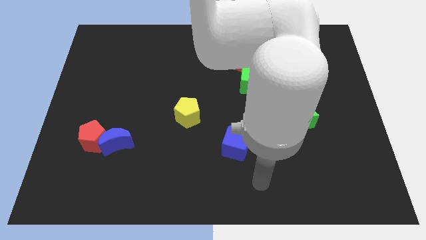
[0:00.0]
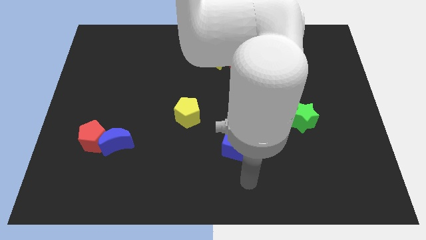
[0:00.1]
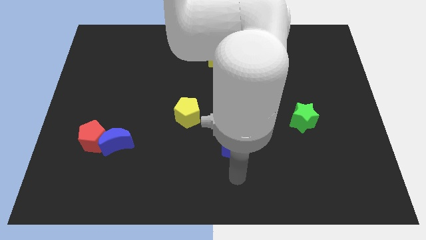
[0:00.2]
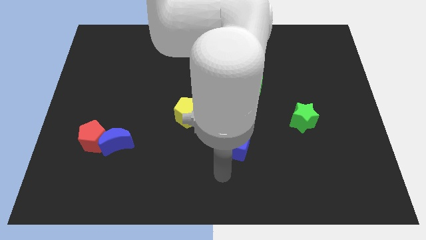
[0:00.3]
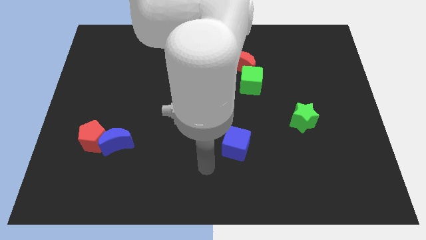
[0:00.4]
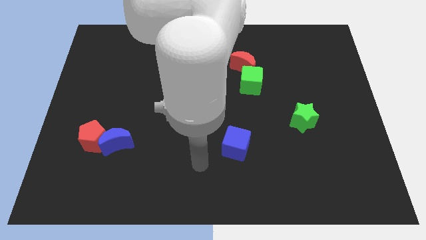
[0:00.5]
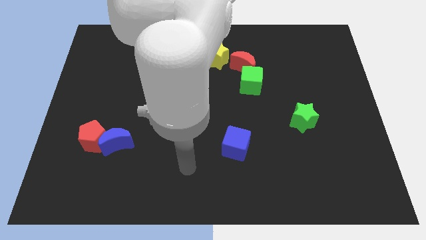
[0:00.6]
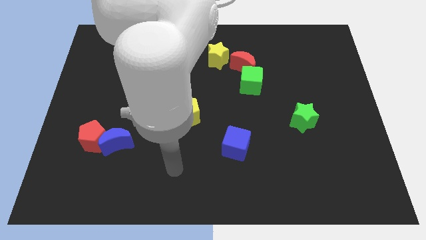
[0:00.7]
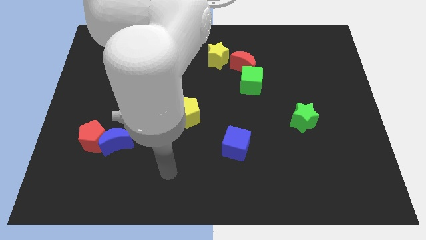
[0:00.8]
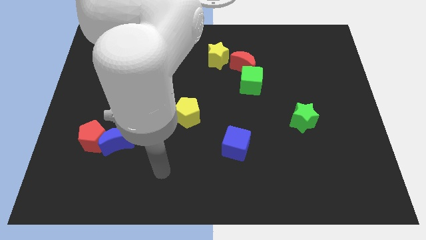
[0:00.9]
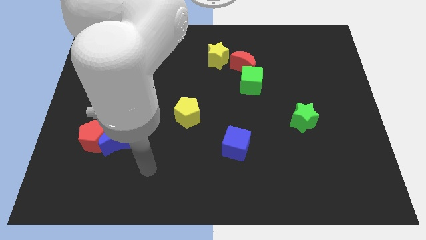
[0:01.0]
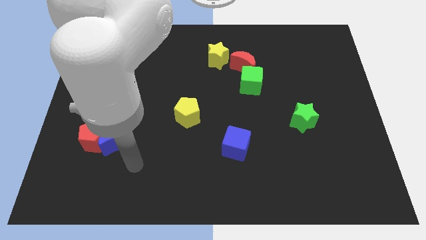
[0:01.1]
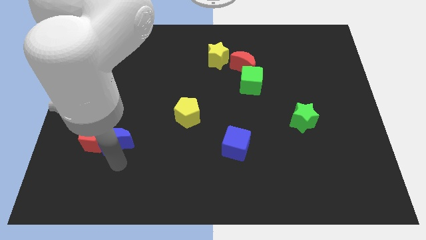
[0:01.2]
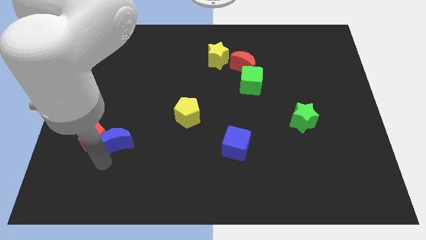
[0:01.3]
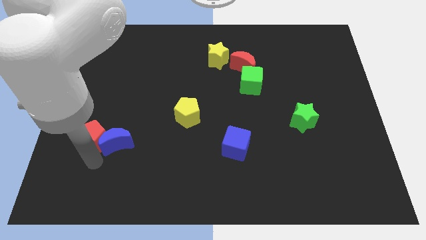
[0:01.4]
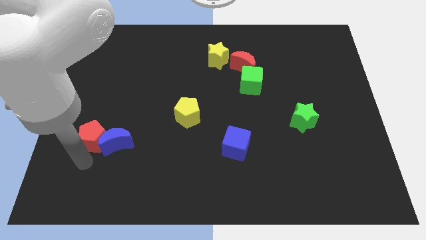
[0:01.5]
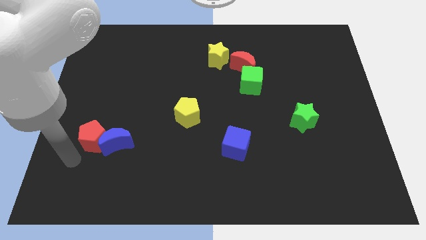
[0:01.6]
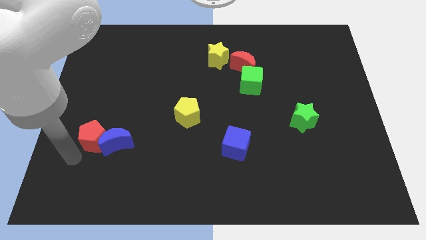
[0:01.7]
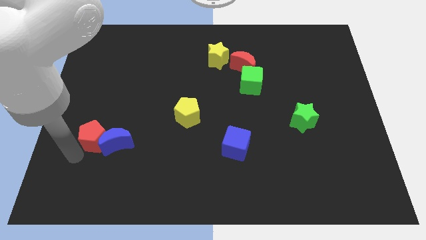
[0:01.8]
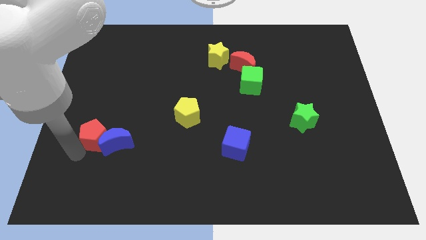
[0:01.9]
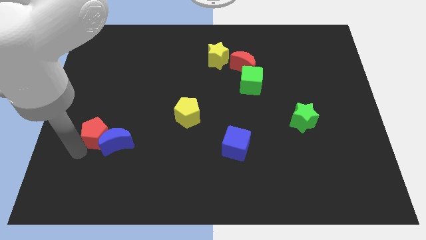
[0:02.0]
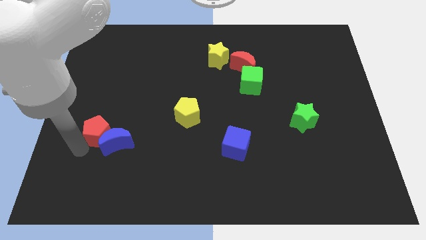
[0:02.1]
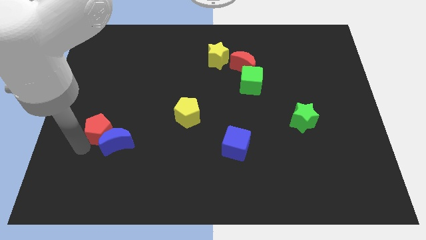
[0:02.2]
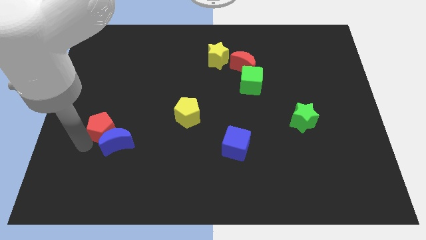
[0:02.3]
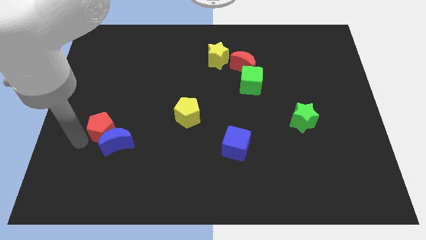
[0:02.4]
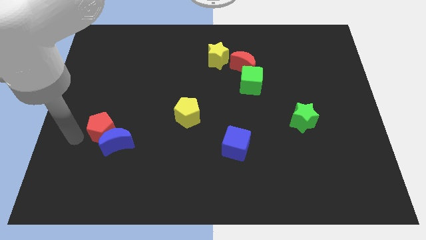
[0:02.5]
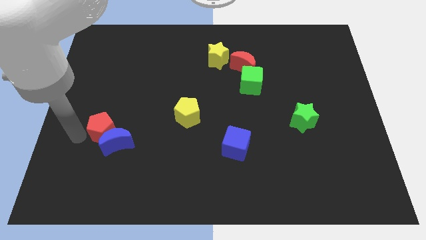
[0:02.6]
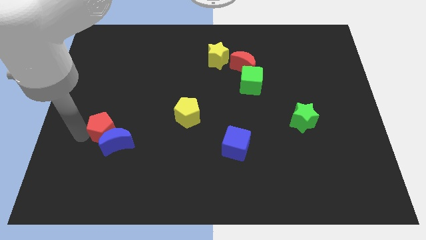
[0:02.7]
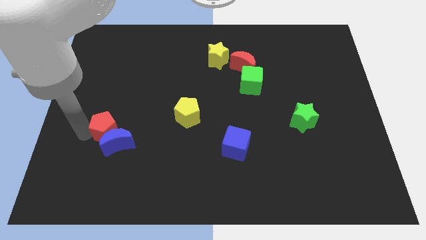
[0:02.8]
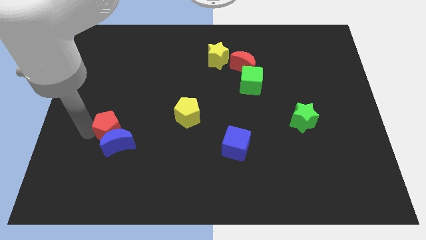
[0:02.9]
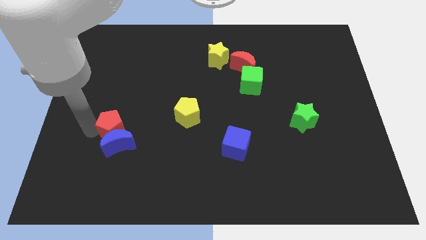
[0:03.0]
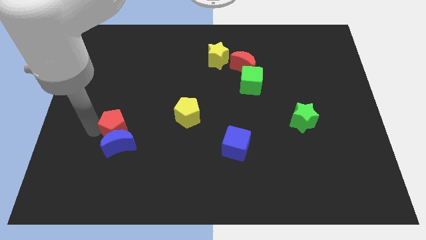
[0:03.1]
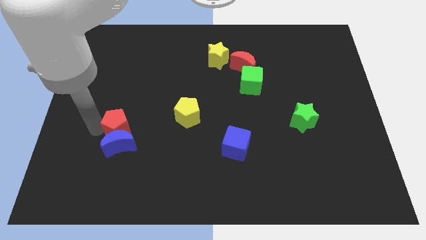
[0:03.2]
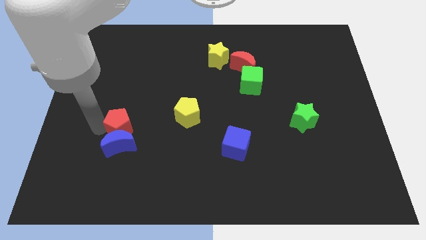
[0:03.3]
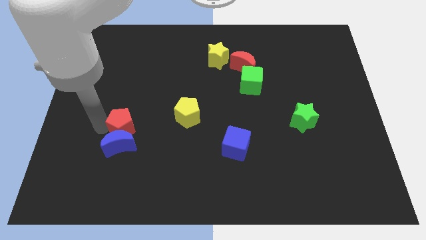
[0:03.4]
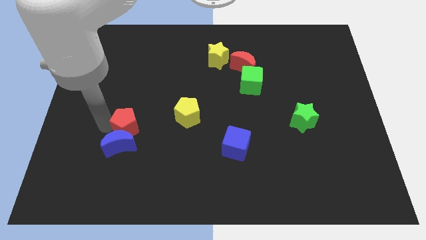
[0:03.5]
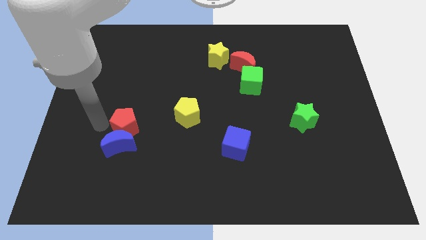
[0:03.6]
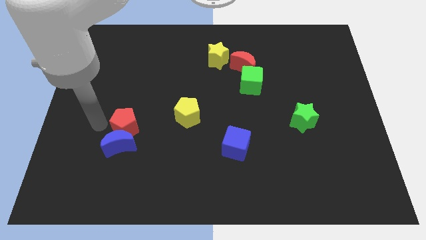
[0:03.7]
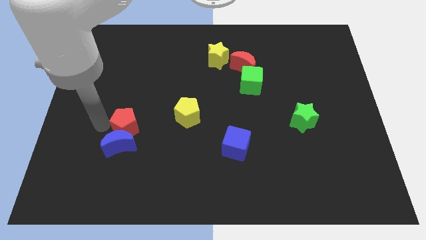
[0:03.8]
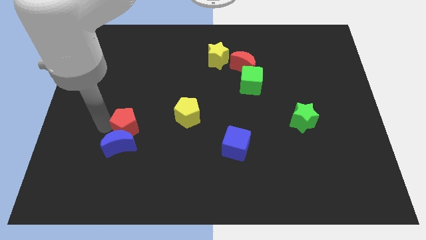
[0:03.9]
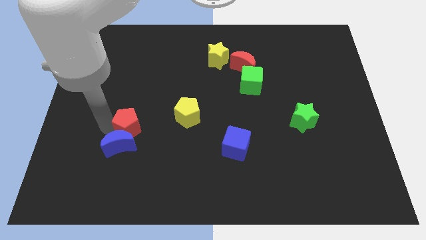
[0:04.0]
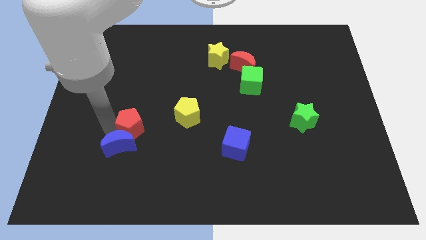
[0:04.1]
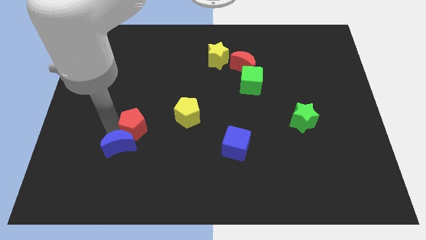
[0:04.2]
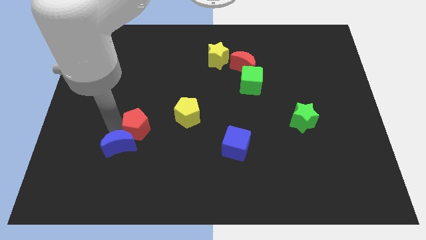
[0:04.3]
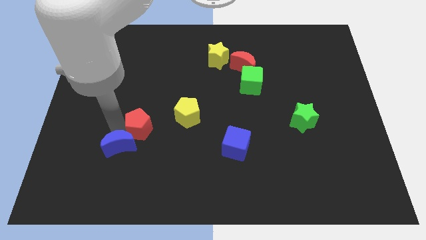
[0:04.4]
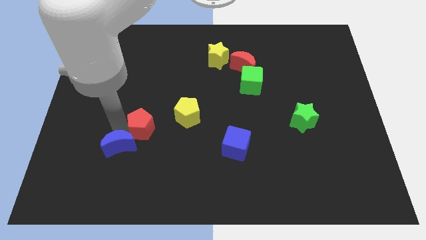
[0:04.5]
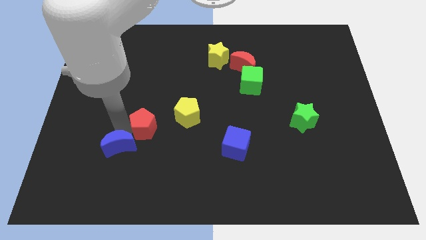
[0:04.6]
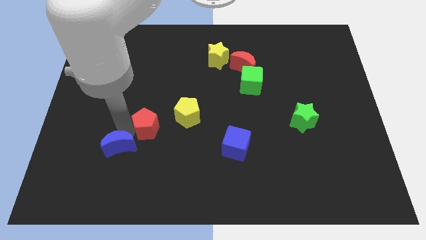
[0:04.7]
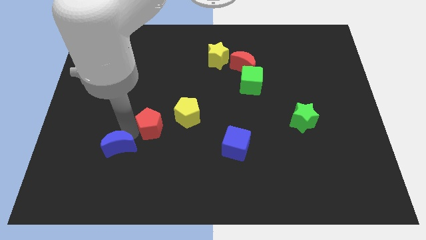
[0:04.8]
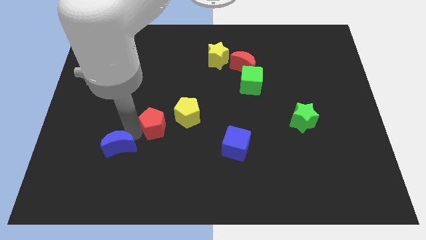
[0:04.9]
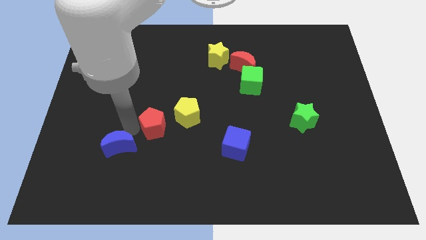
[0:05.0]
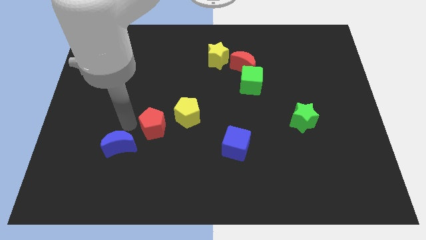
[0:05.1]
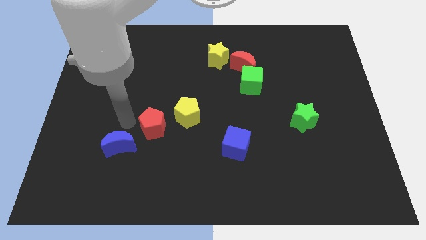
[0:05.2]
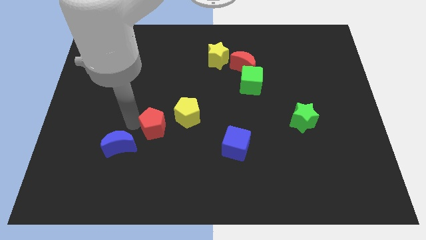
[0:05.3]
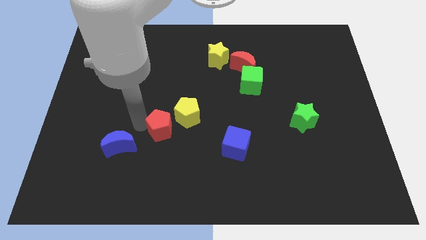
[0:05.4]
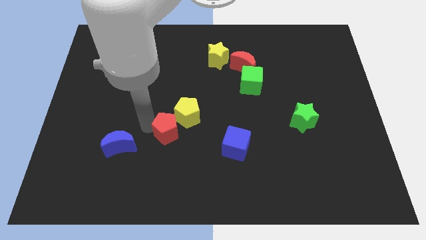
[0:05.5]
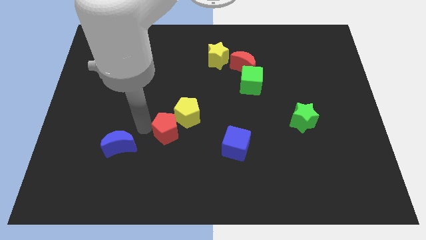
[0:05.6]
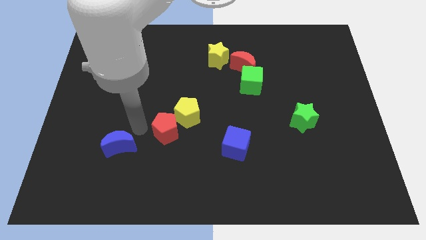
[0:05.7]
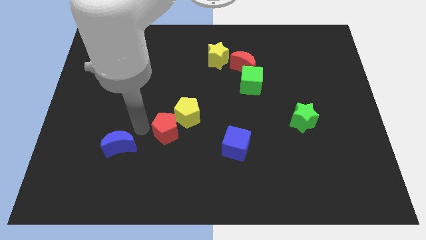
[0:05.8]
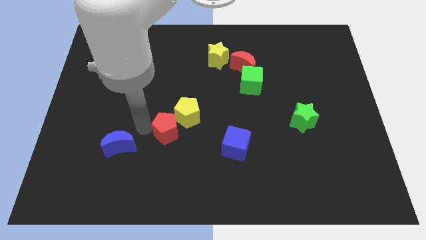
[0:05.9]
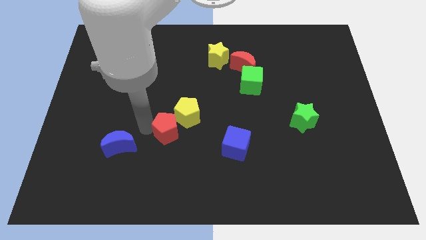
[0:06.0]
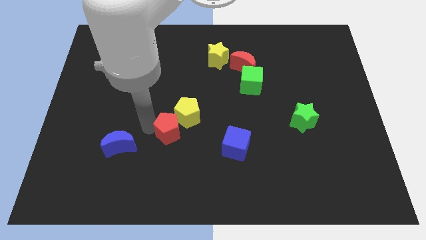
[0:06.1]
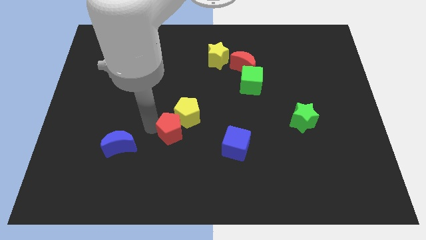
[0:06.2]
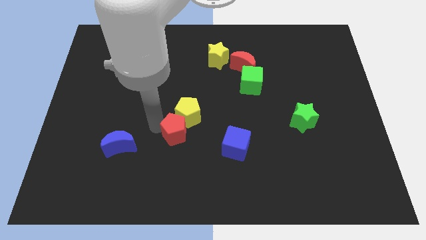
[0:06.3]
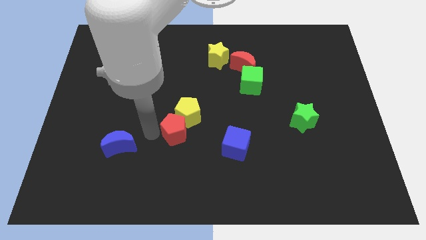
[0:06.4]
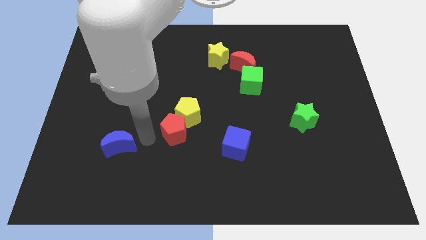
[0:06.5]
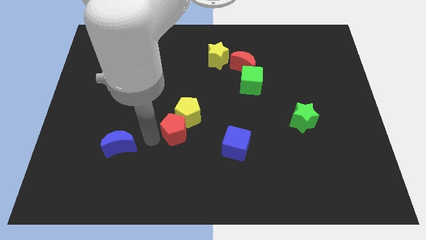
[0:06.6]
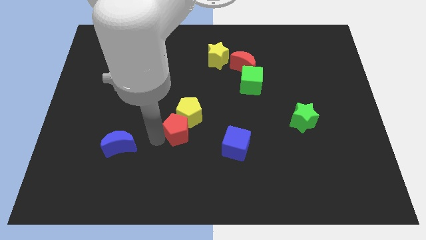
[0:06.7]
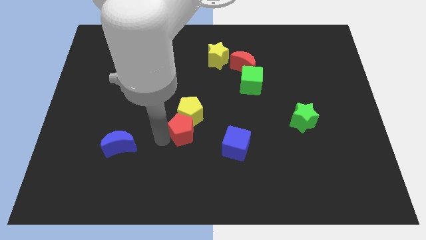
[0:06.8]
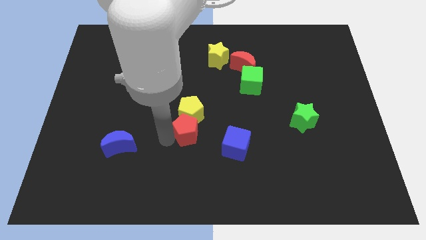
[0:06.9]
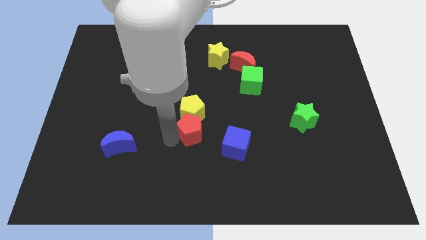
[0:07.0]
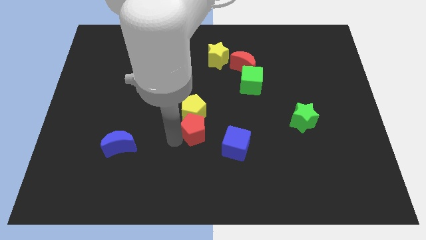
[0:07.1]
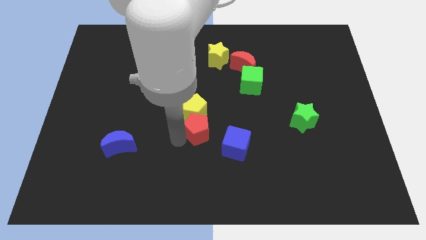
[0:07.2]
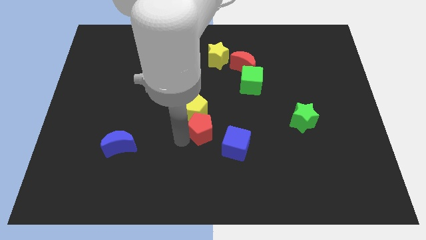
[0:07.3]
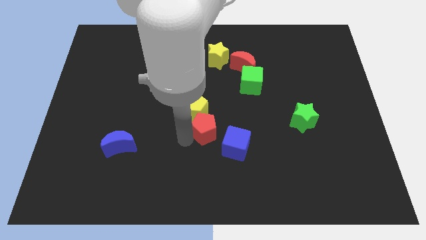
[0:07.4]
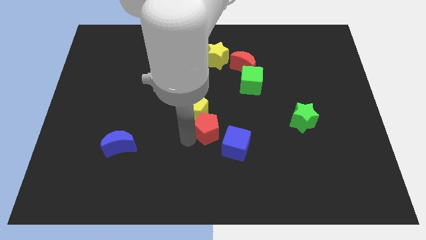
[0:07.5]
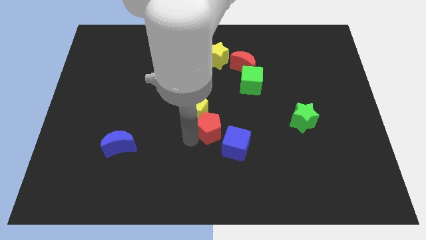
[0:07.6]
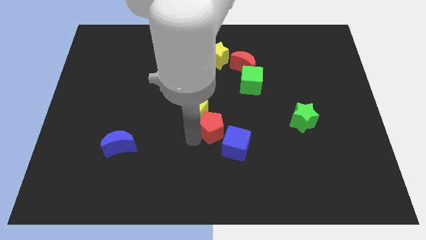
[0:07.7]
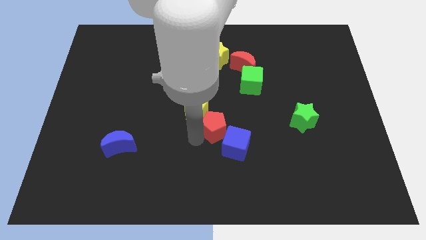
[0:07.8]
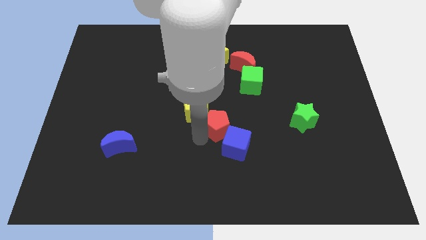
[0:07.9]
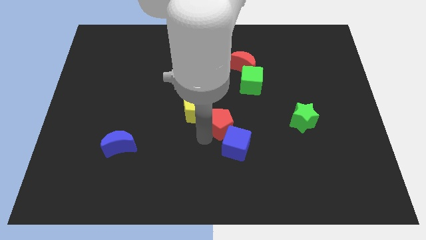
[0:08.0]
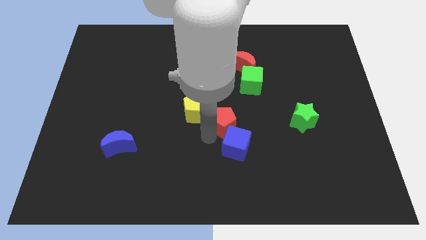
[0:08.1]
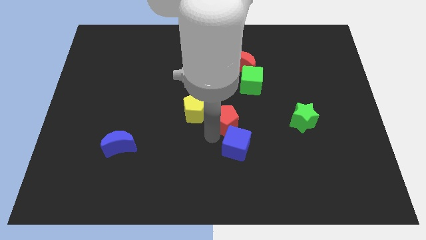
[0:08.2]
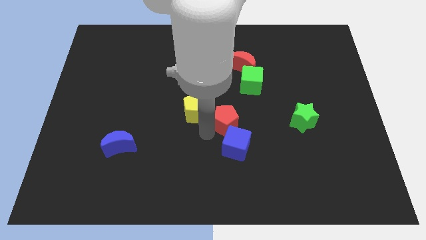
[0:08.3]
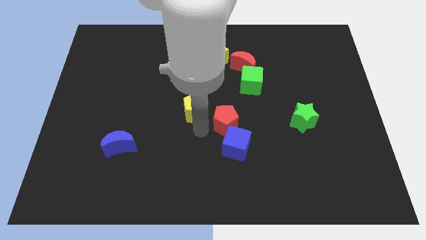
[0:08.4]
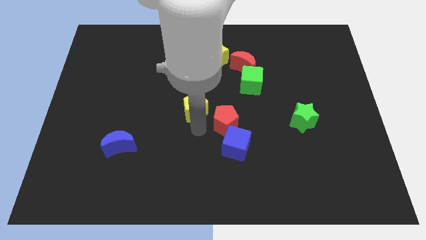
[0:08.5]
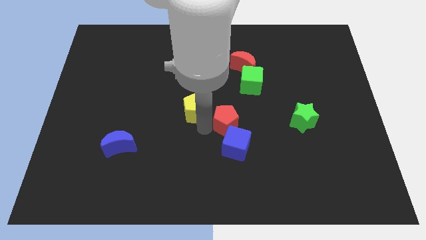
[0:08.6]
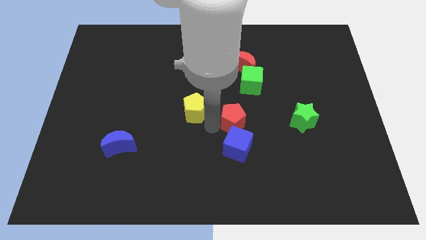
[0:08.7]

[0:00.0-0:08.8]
push the red pentagon below the green cube
